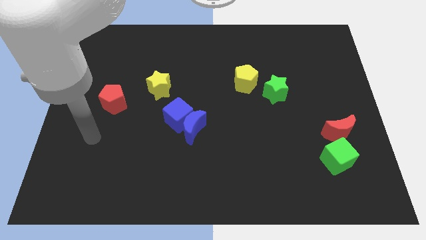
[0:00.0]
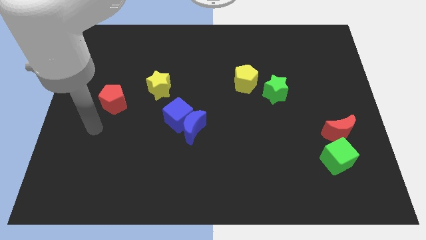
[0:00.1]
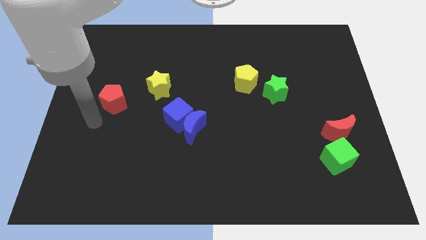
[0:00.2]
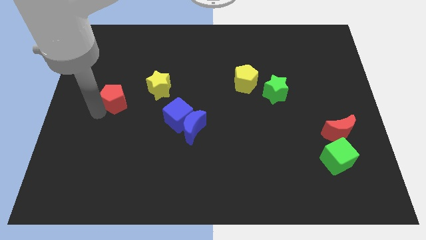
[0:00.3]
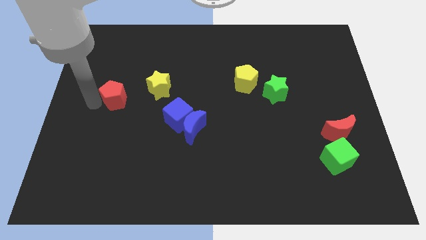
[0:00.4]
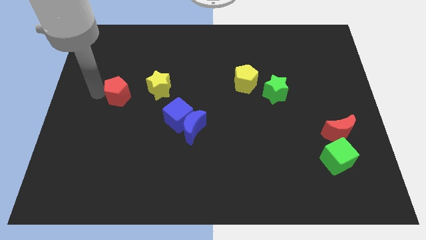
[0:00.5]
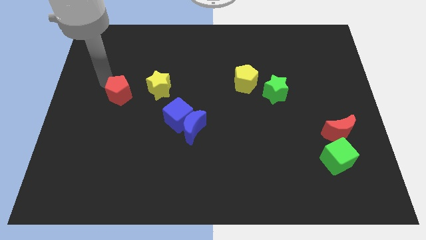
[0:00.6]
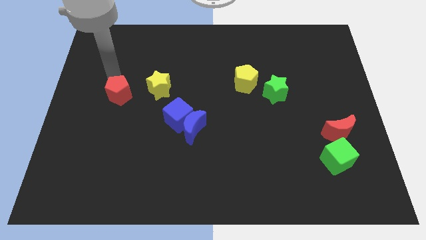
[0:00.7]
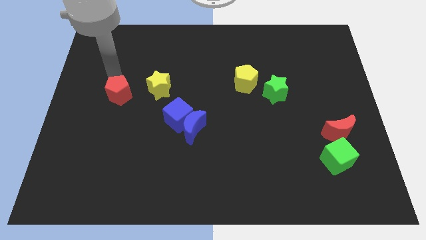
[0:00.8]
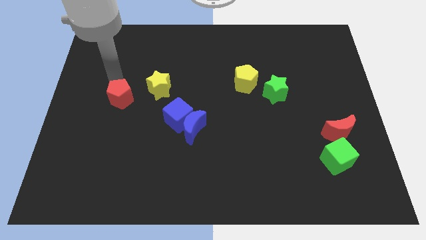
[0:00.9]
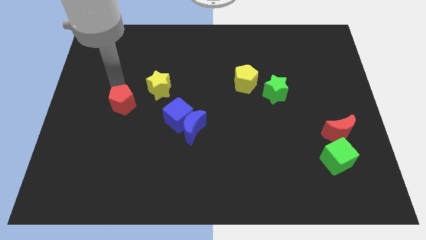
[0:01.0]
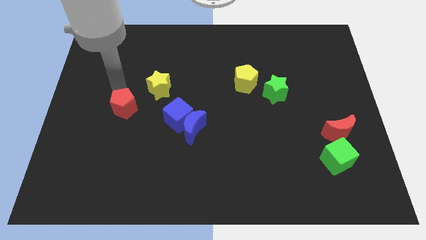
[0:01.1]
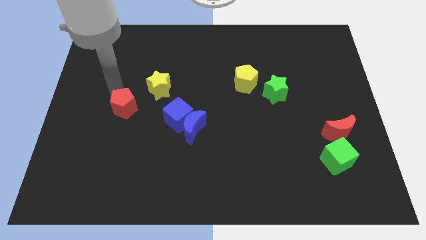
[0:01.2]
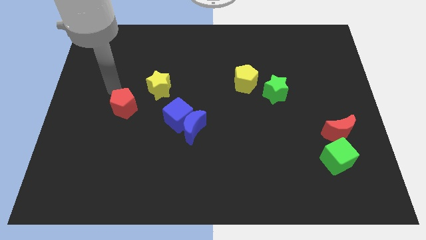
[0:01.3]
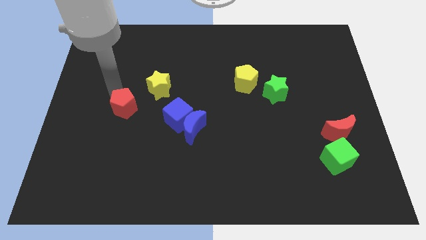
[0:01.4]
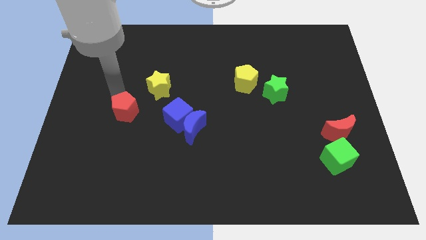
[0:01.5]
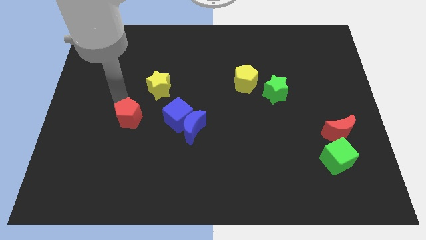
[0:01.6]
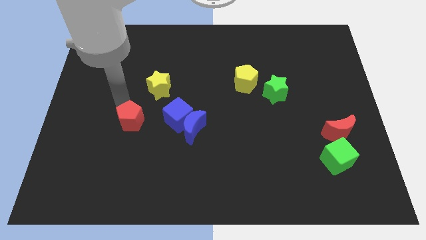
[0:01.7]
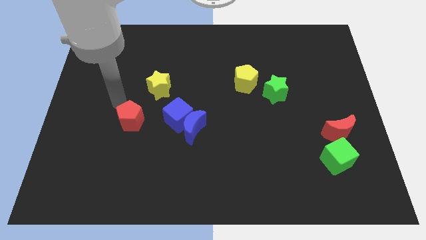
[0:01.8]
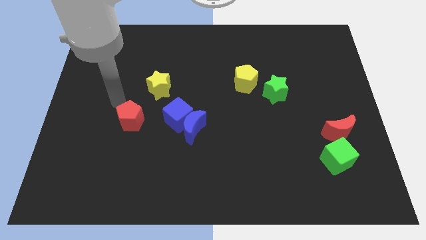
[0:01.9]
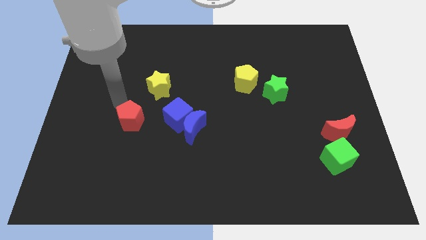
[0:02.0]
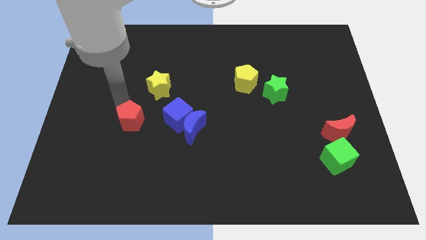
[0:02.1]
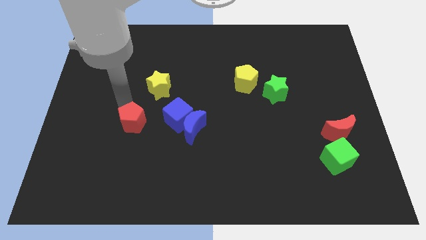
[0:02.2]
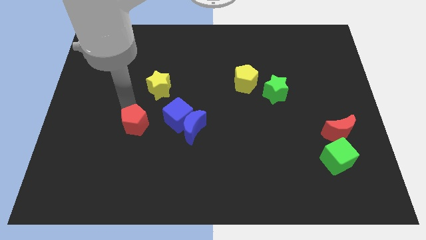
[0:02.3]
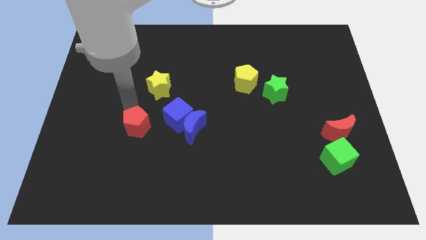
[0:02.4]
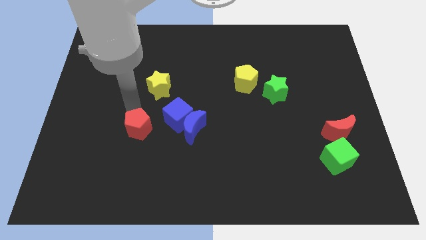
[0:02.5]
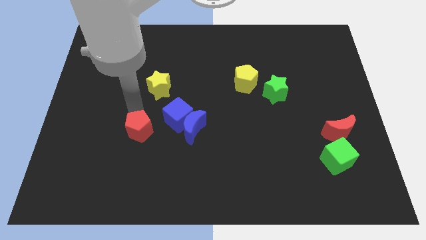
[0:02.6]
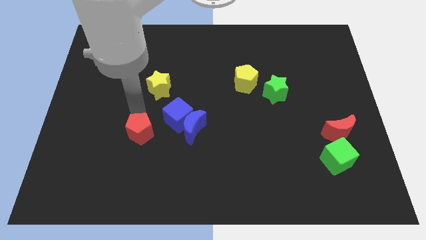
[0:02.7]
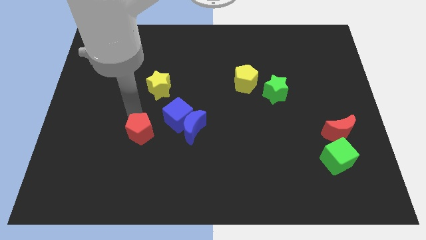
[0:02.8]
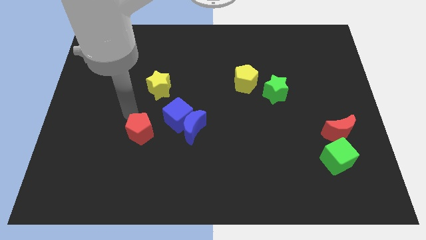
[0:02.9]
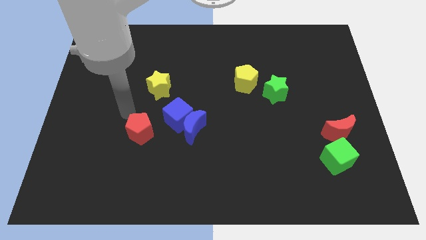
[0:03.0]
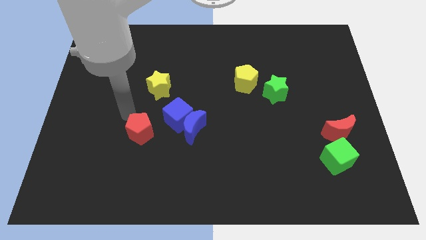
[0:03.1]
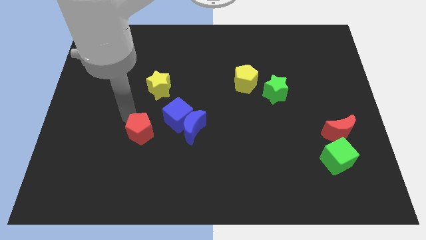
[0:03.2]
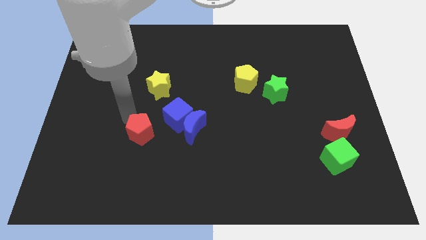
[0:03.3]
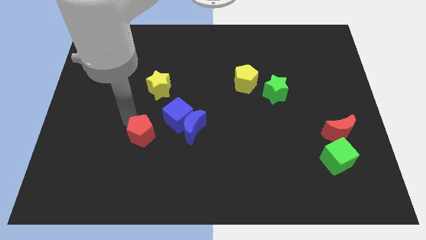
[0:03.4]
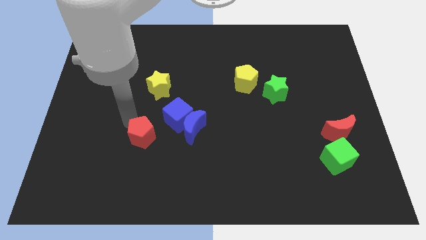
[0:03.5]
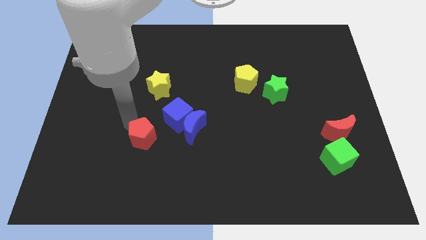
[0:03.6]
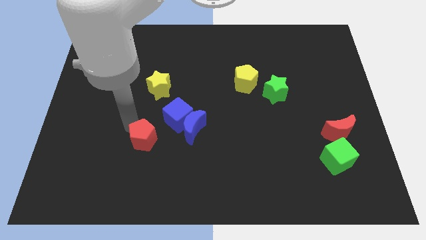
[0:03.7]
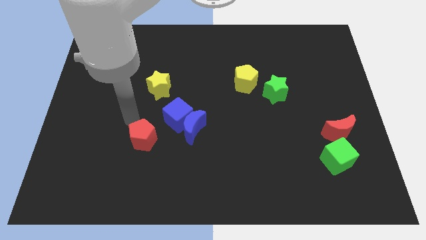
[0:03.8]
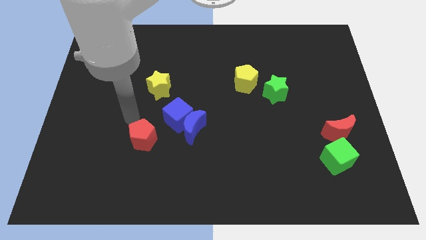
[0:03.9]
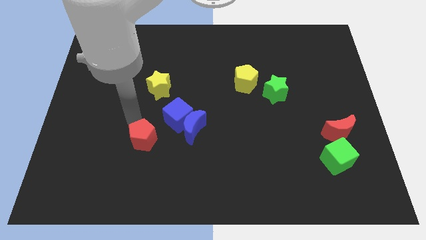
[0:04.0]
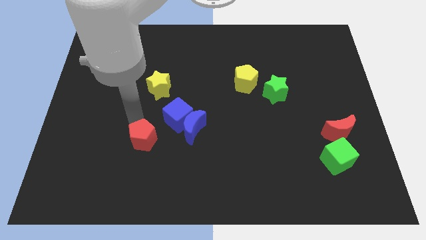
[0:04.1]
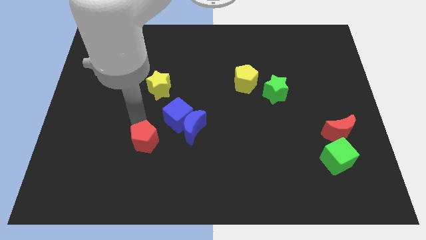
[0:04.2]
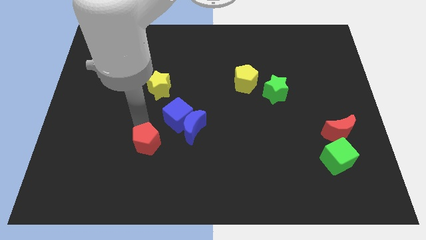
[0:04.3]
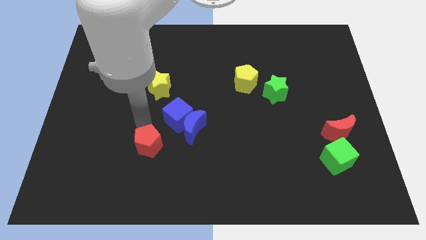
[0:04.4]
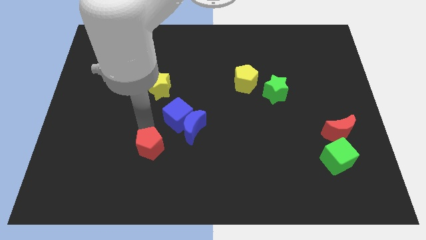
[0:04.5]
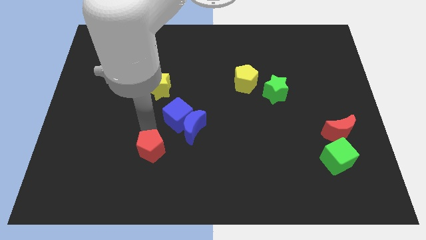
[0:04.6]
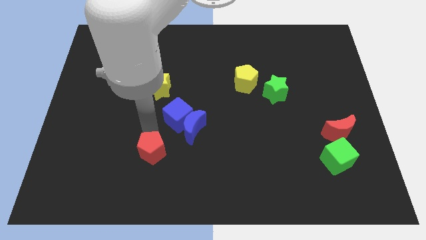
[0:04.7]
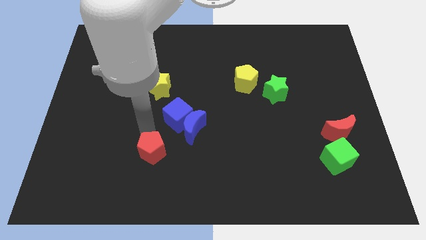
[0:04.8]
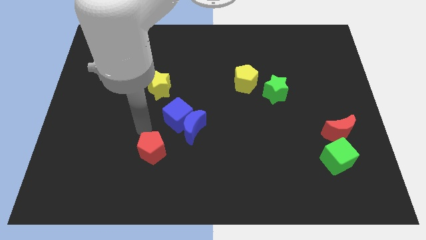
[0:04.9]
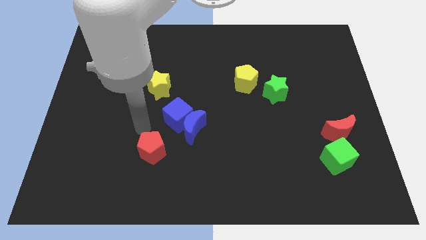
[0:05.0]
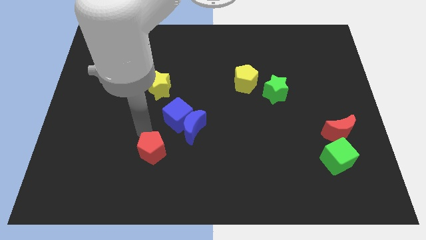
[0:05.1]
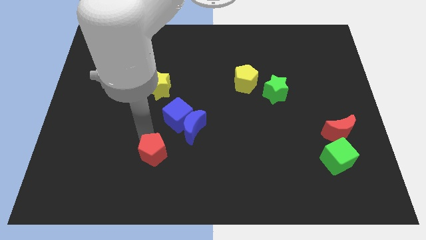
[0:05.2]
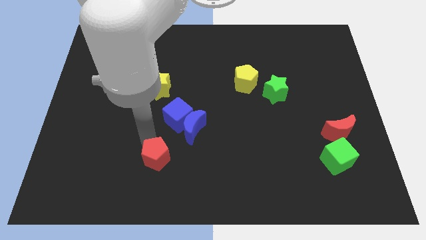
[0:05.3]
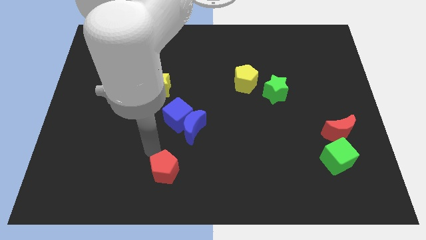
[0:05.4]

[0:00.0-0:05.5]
push the red pentagon to the bottom side

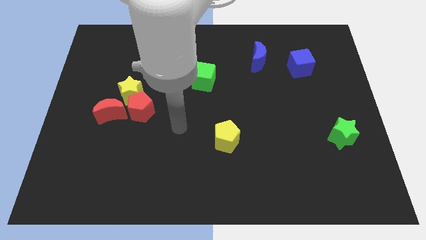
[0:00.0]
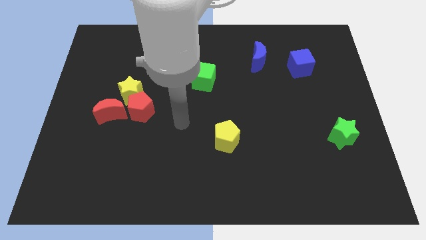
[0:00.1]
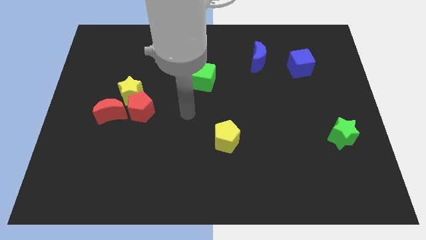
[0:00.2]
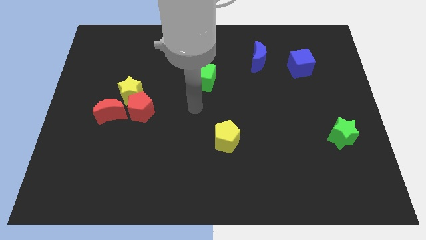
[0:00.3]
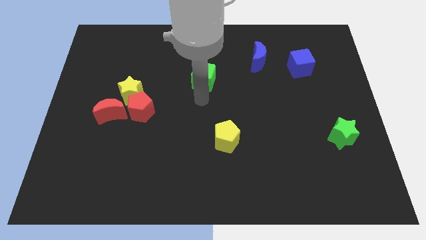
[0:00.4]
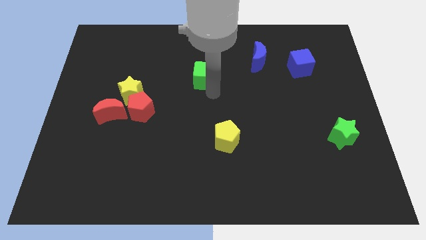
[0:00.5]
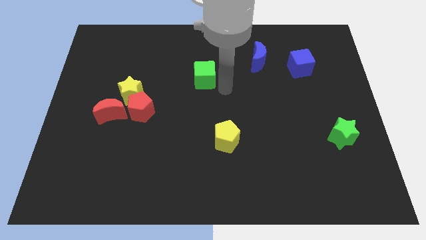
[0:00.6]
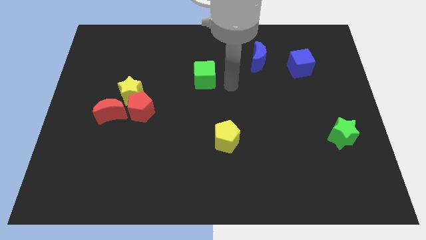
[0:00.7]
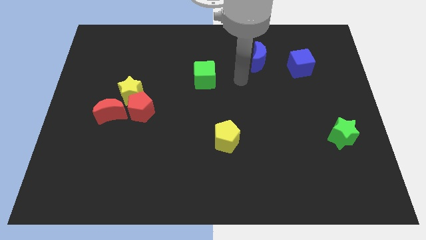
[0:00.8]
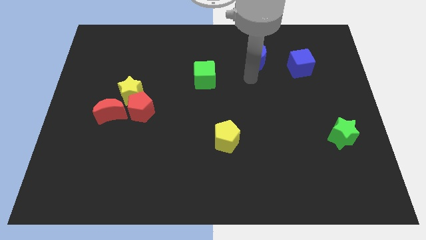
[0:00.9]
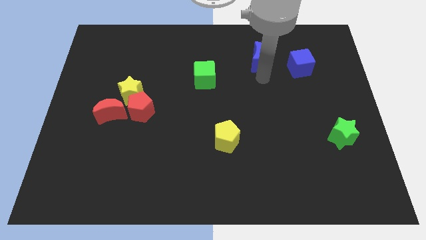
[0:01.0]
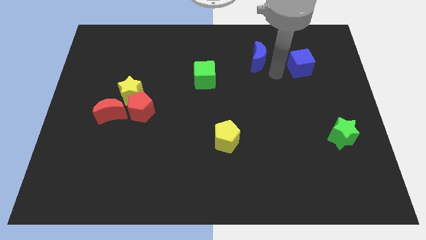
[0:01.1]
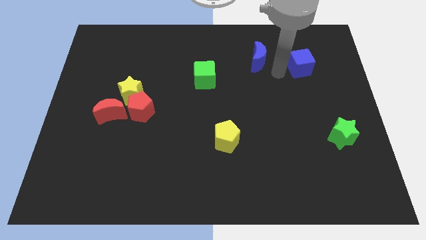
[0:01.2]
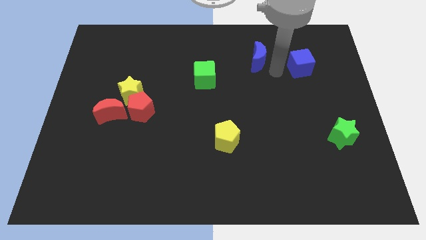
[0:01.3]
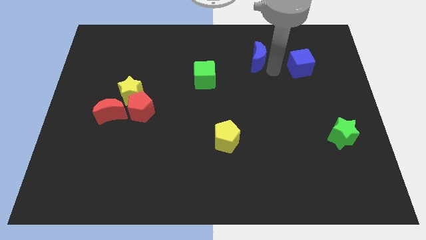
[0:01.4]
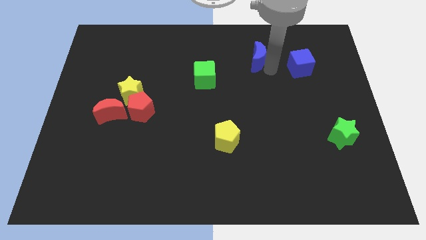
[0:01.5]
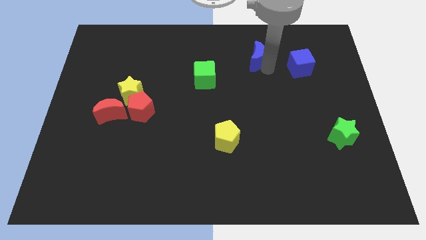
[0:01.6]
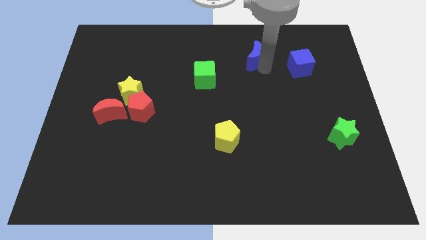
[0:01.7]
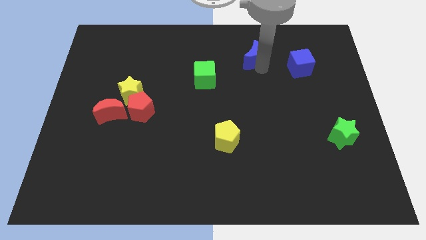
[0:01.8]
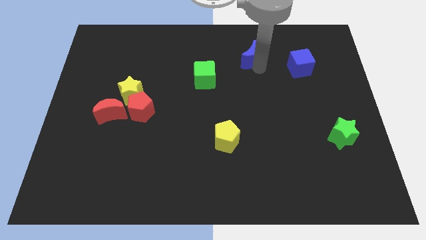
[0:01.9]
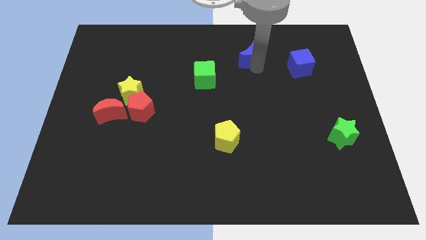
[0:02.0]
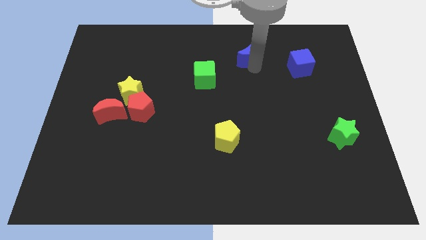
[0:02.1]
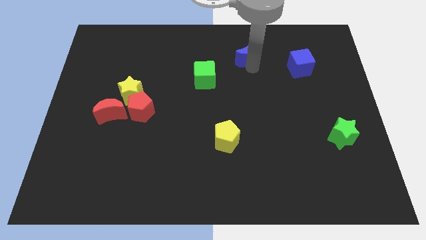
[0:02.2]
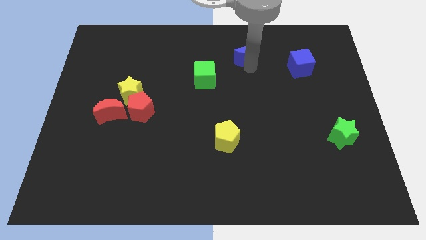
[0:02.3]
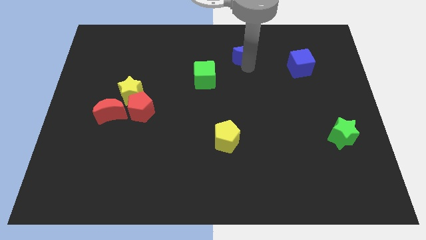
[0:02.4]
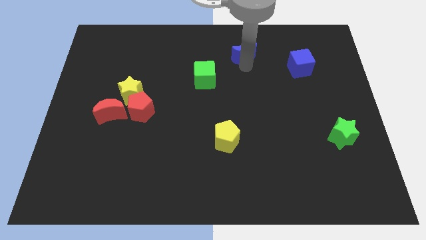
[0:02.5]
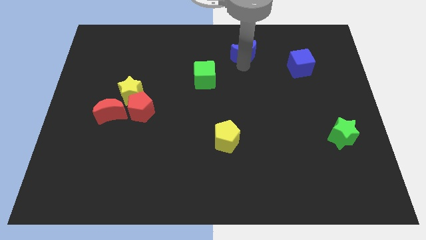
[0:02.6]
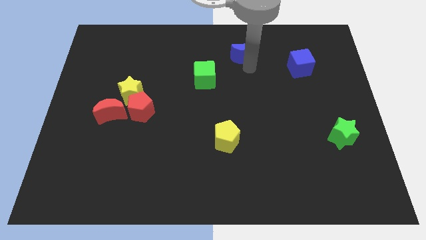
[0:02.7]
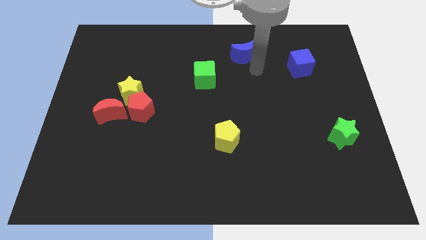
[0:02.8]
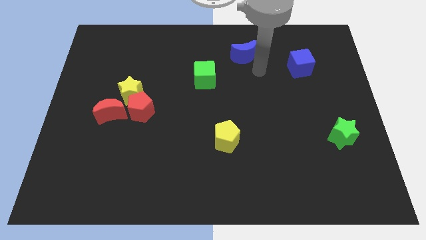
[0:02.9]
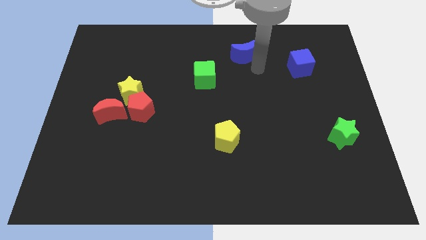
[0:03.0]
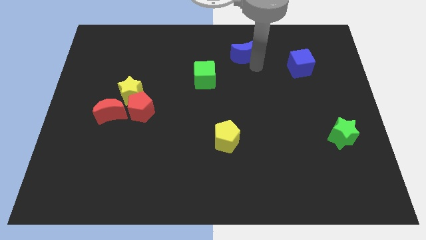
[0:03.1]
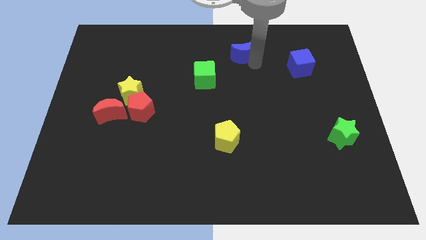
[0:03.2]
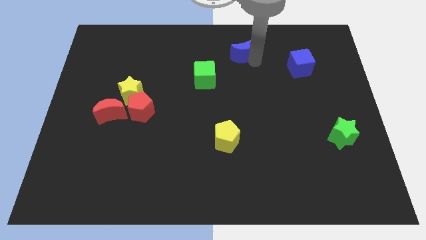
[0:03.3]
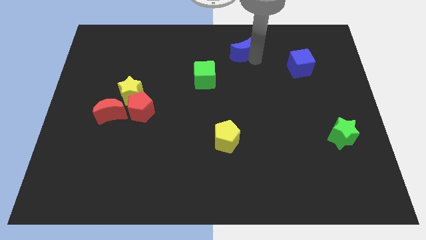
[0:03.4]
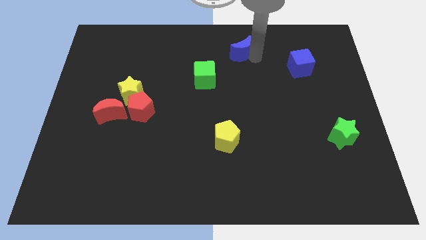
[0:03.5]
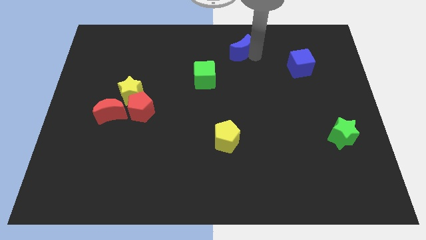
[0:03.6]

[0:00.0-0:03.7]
put the blue moon to the top
